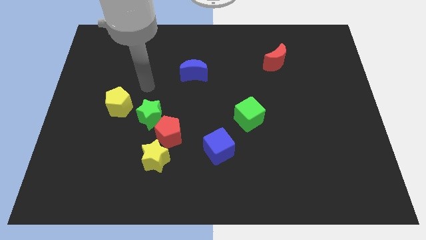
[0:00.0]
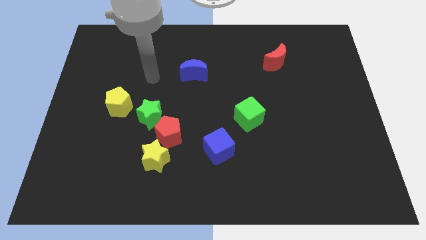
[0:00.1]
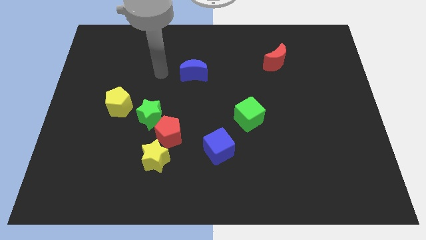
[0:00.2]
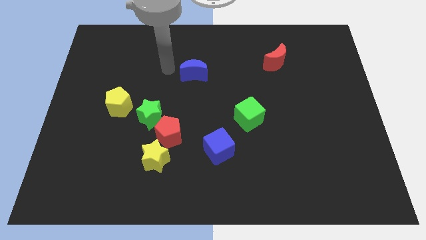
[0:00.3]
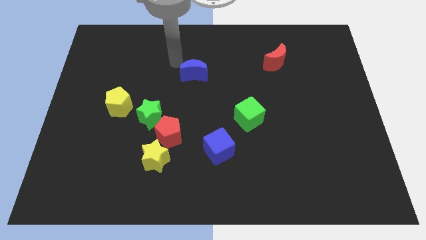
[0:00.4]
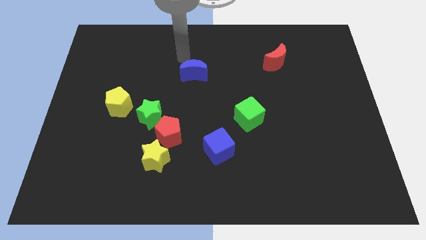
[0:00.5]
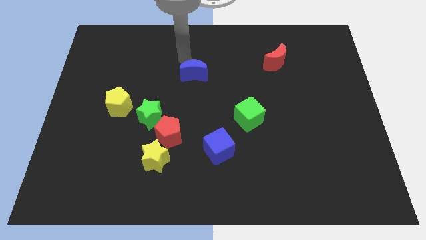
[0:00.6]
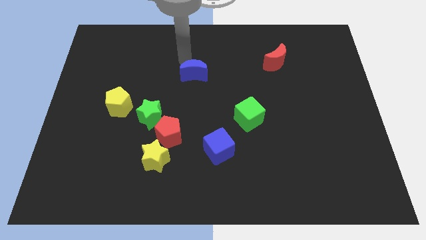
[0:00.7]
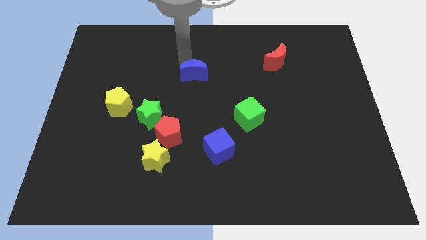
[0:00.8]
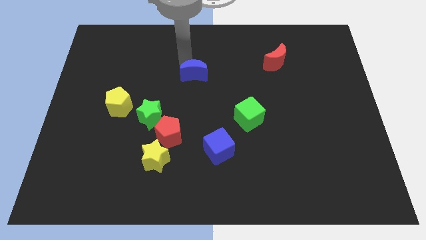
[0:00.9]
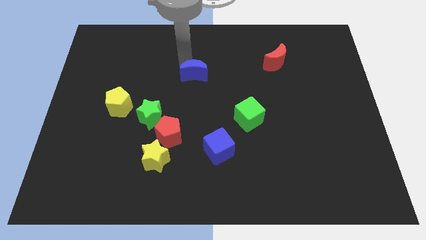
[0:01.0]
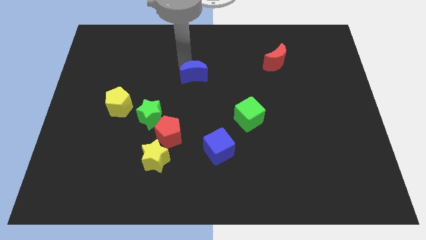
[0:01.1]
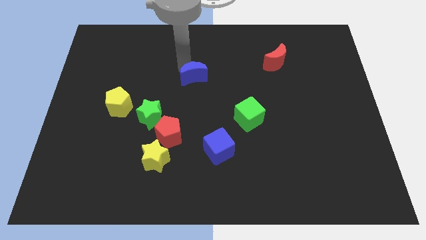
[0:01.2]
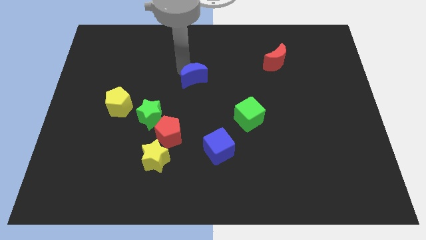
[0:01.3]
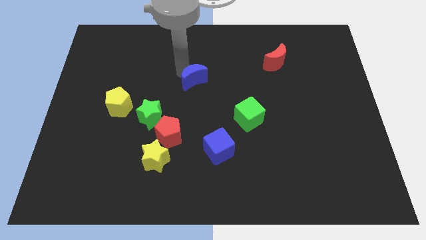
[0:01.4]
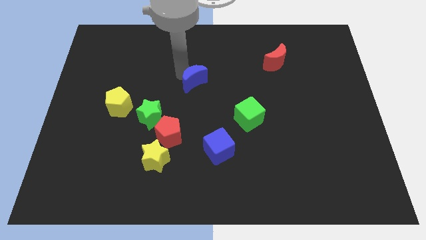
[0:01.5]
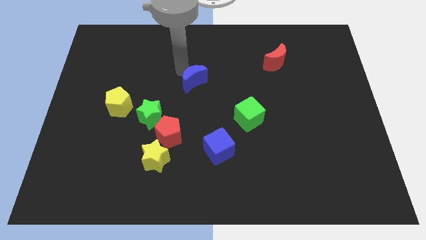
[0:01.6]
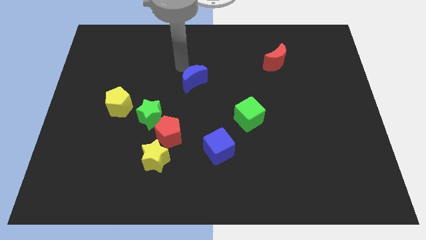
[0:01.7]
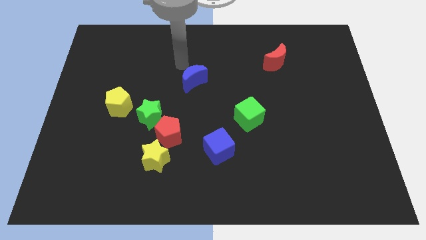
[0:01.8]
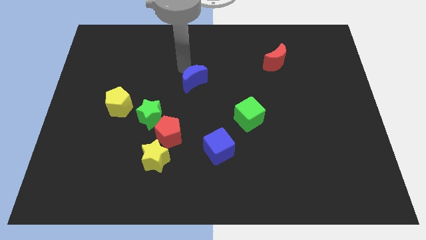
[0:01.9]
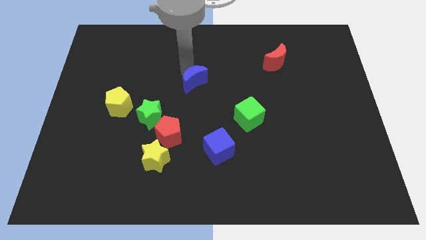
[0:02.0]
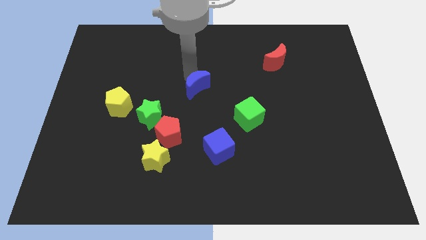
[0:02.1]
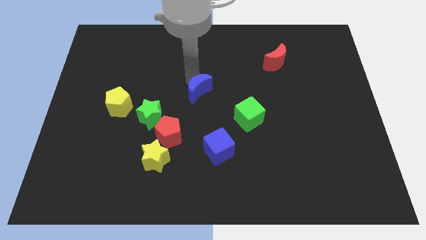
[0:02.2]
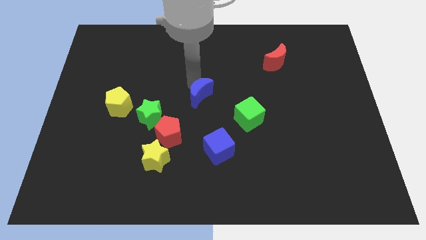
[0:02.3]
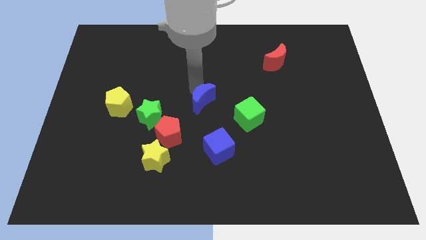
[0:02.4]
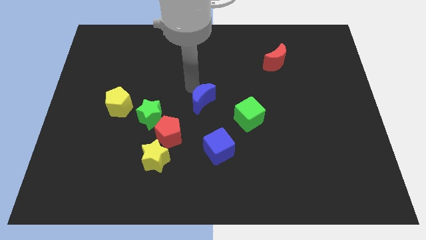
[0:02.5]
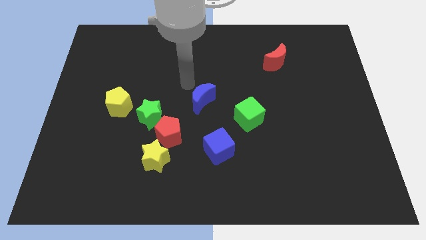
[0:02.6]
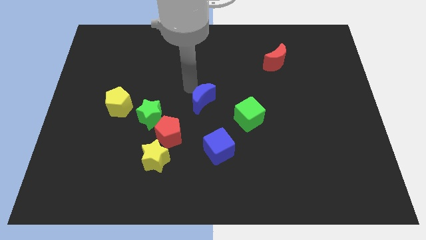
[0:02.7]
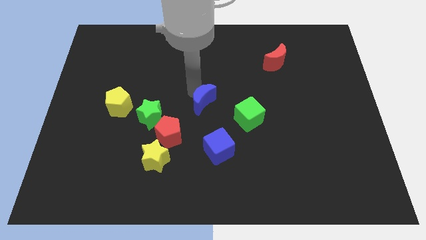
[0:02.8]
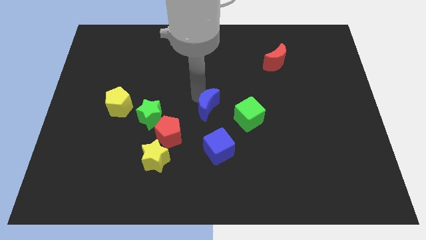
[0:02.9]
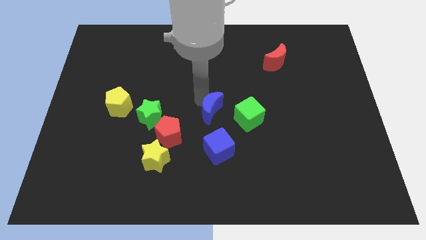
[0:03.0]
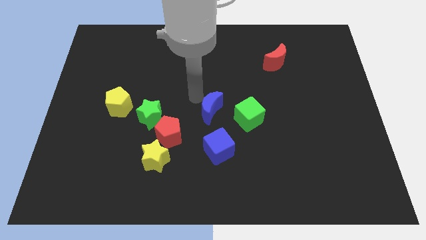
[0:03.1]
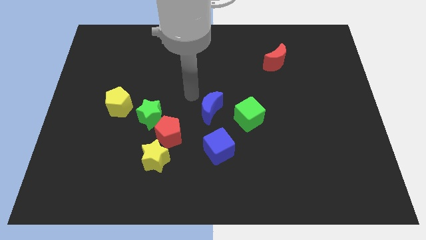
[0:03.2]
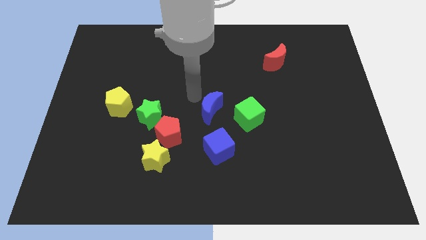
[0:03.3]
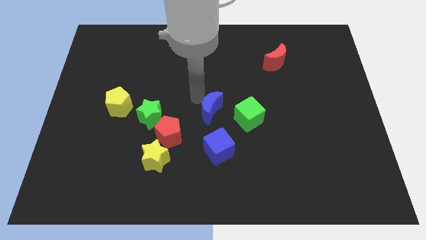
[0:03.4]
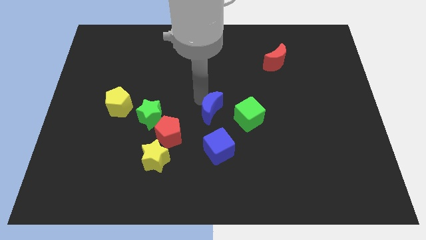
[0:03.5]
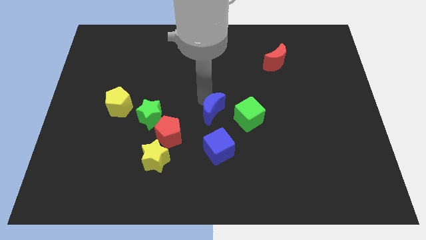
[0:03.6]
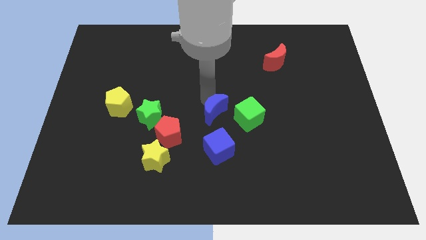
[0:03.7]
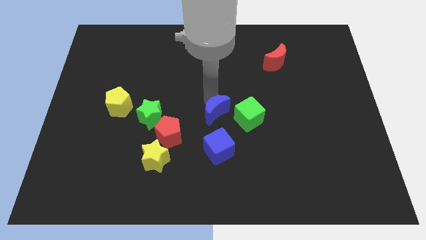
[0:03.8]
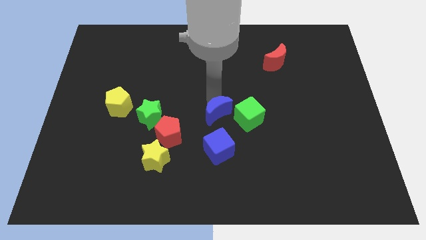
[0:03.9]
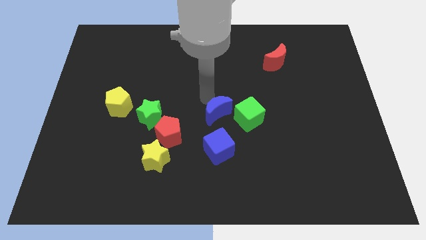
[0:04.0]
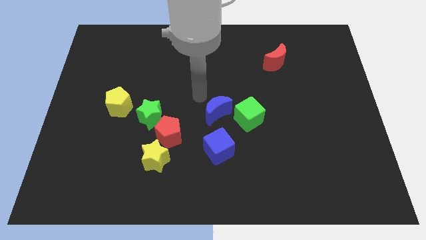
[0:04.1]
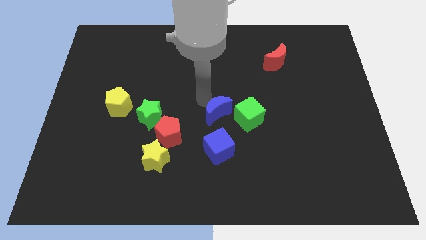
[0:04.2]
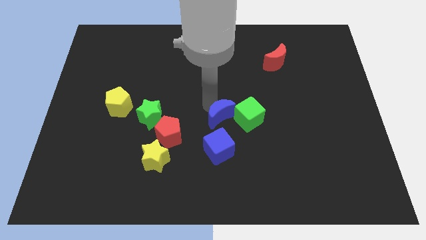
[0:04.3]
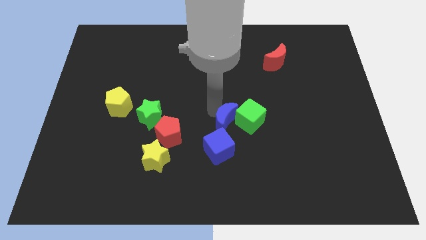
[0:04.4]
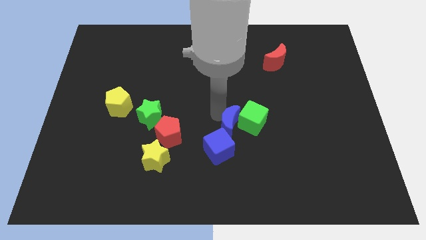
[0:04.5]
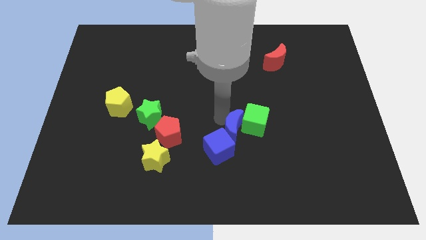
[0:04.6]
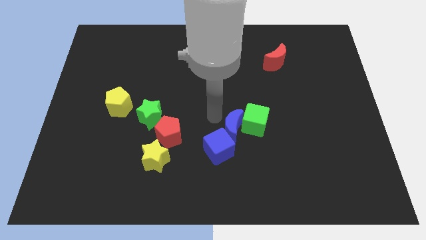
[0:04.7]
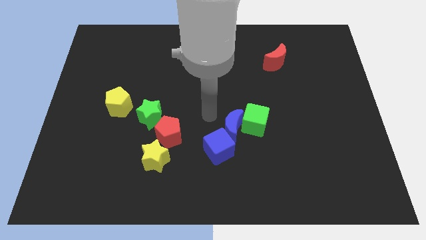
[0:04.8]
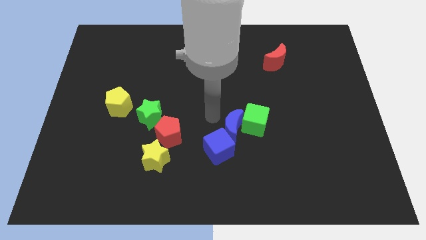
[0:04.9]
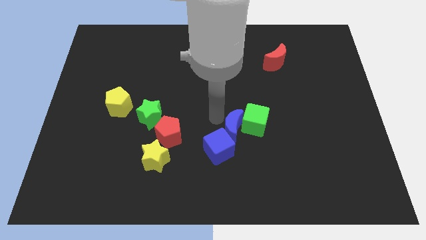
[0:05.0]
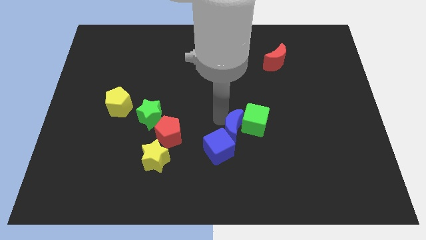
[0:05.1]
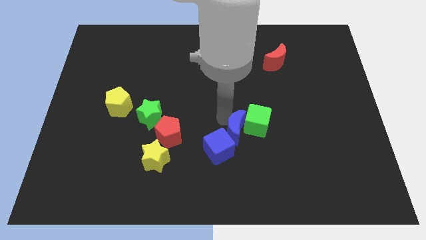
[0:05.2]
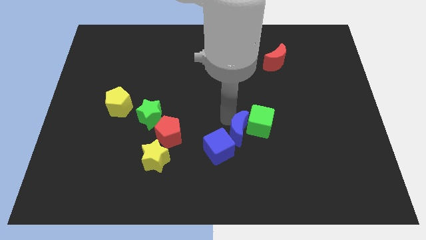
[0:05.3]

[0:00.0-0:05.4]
move the blue moon right of the blue cube

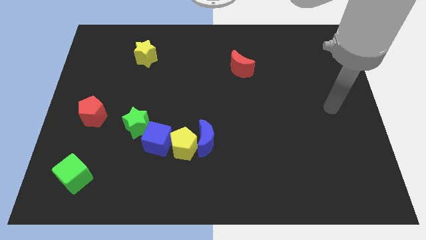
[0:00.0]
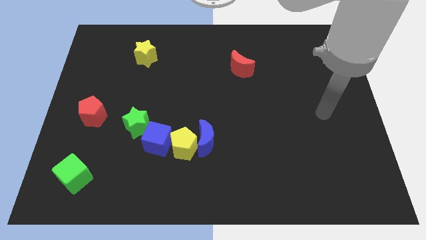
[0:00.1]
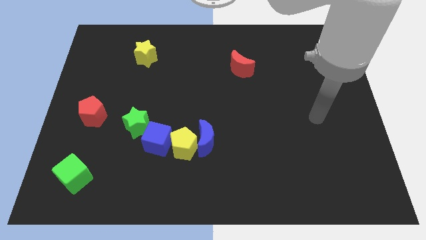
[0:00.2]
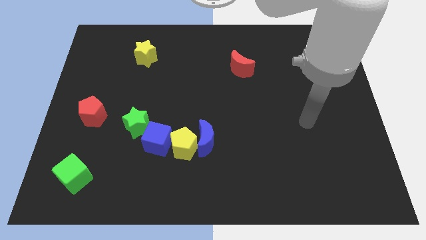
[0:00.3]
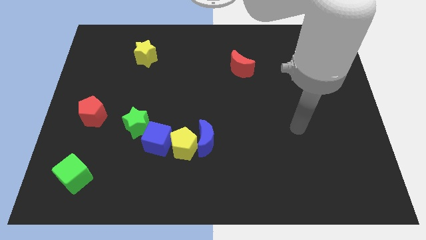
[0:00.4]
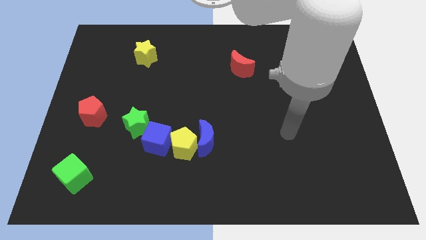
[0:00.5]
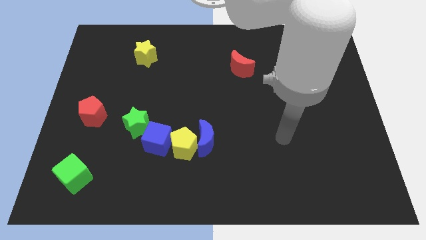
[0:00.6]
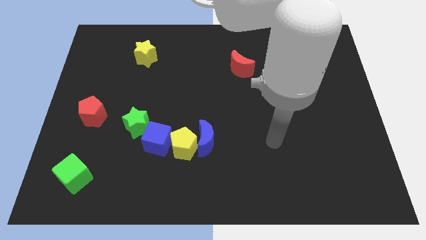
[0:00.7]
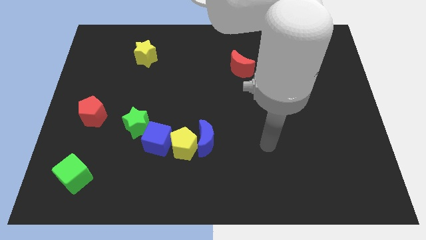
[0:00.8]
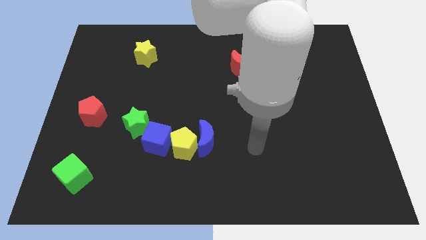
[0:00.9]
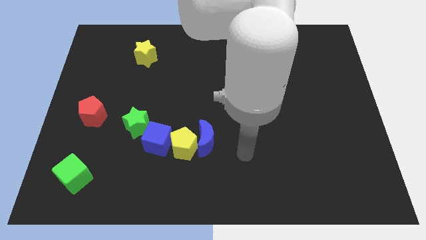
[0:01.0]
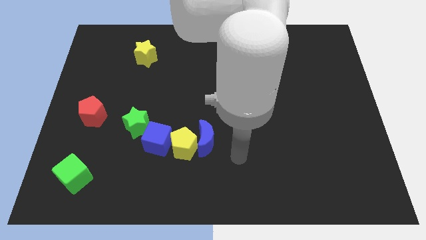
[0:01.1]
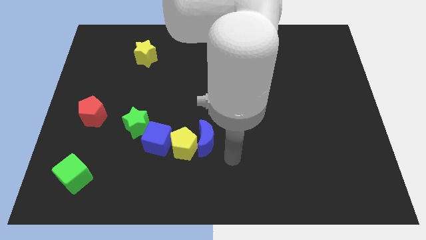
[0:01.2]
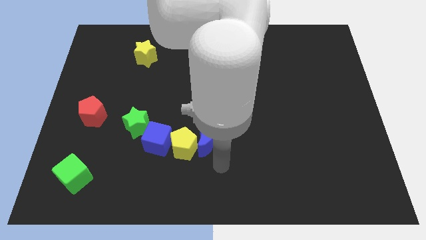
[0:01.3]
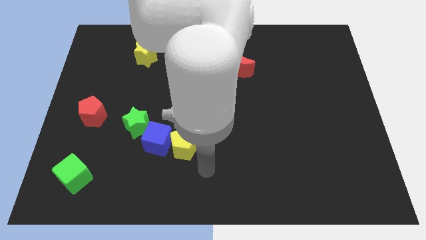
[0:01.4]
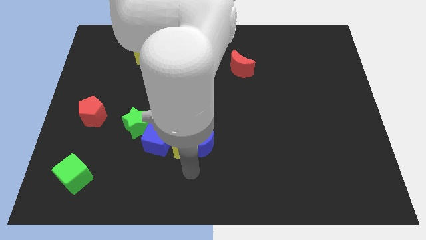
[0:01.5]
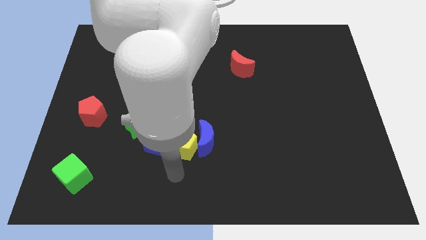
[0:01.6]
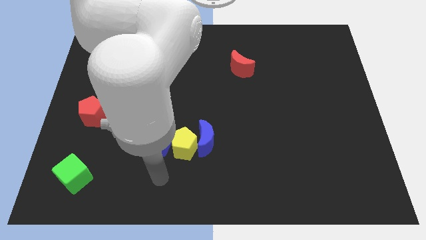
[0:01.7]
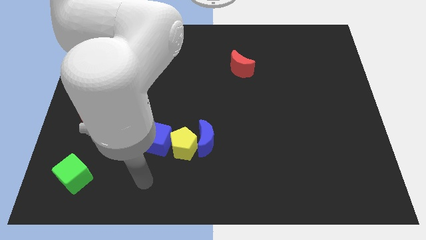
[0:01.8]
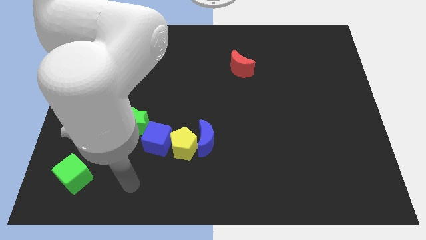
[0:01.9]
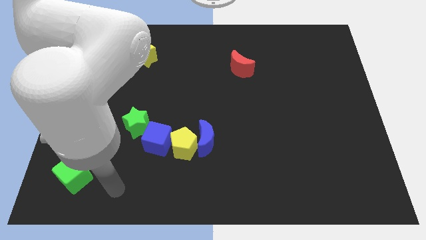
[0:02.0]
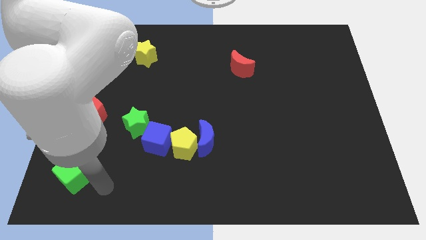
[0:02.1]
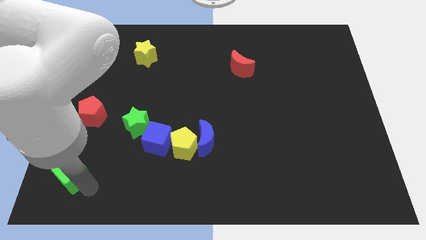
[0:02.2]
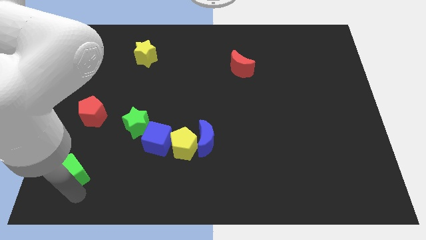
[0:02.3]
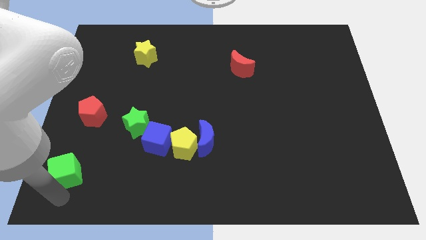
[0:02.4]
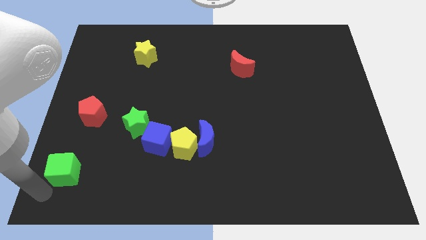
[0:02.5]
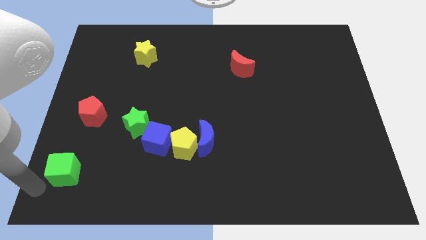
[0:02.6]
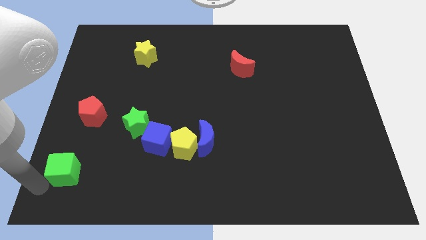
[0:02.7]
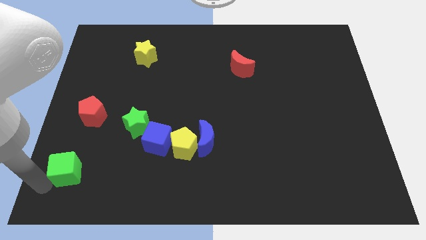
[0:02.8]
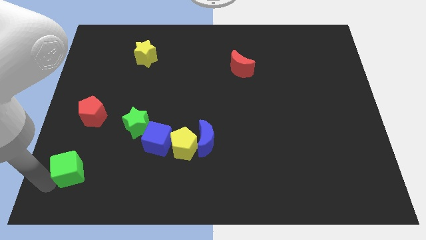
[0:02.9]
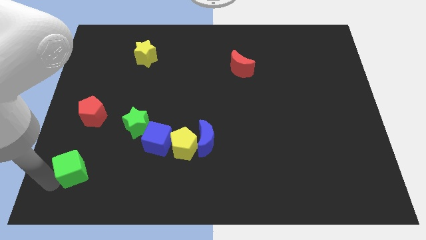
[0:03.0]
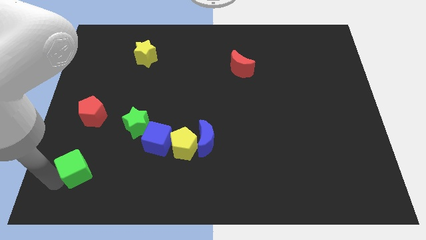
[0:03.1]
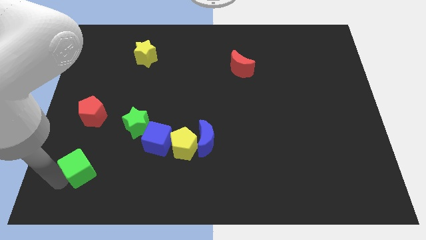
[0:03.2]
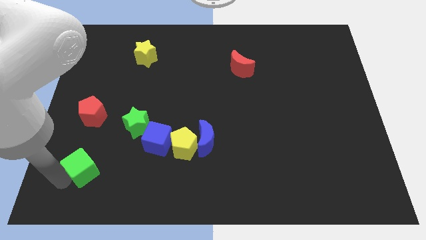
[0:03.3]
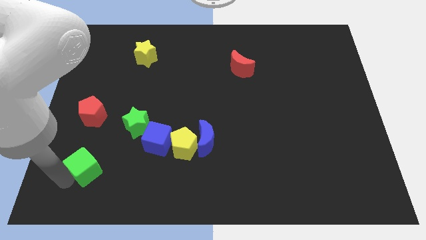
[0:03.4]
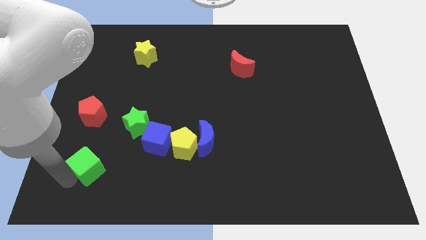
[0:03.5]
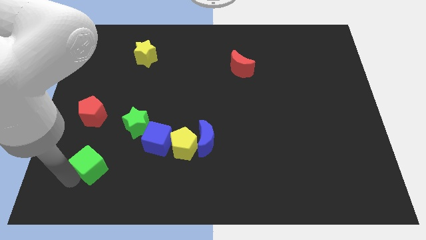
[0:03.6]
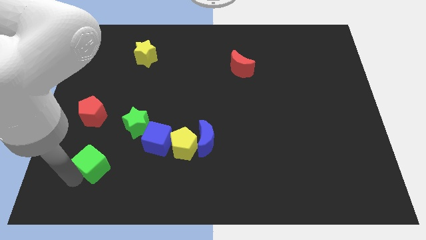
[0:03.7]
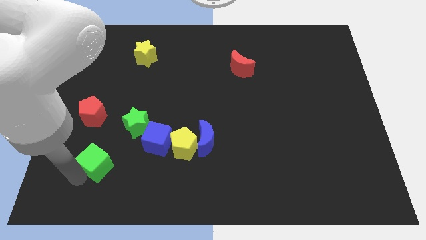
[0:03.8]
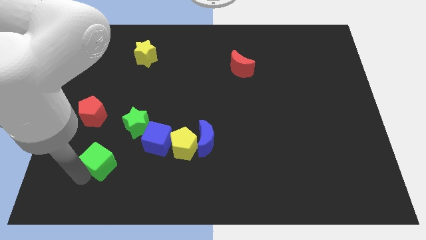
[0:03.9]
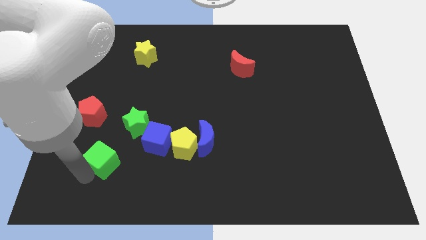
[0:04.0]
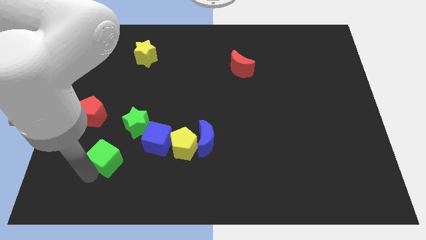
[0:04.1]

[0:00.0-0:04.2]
push the green cube left of the blue cube
